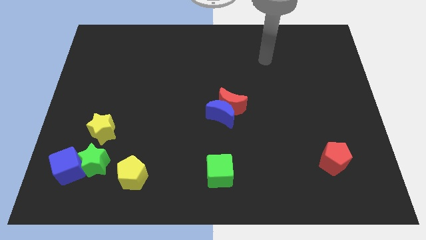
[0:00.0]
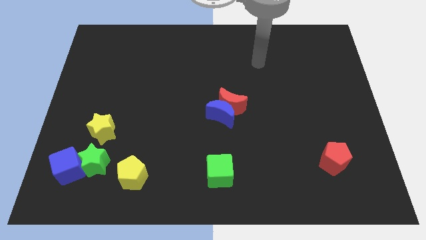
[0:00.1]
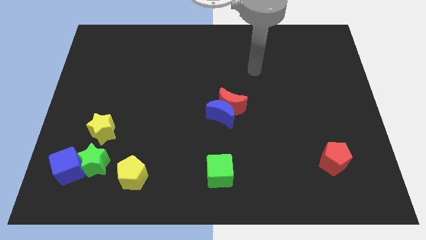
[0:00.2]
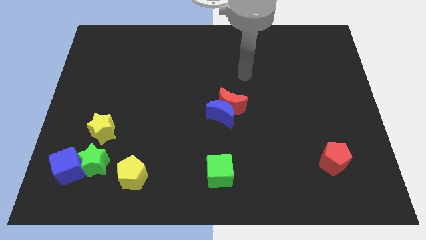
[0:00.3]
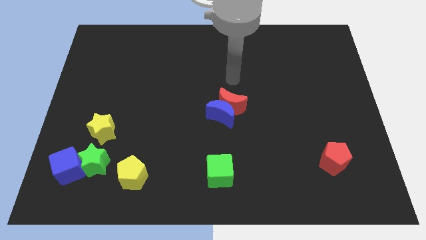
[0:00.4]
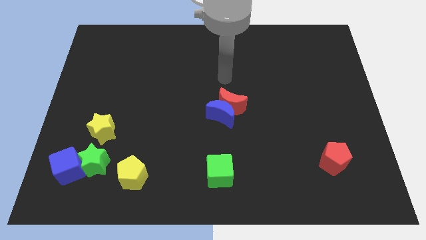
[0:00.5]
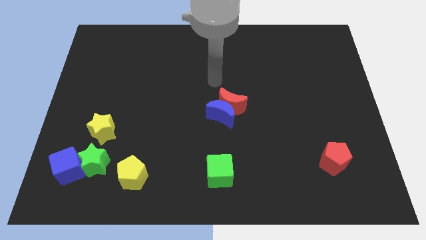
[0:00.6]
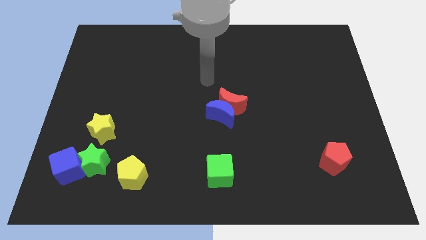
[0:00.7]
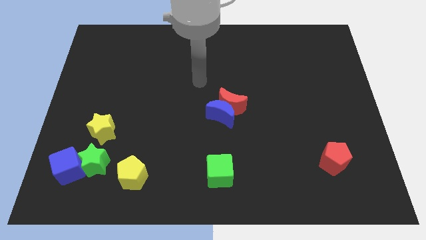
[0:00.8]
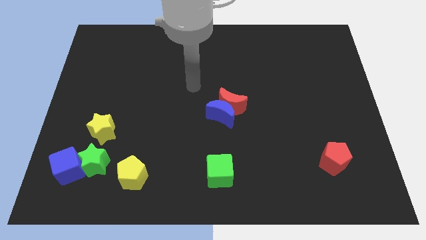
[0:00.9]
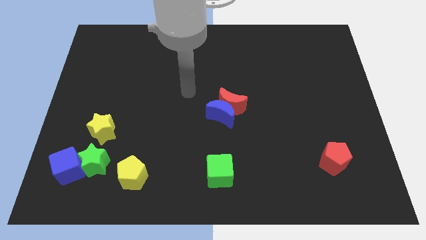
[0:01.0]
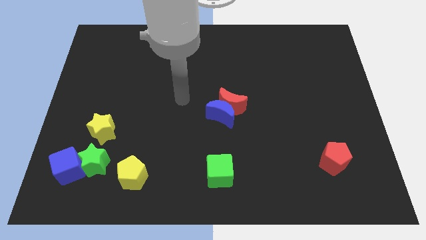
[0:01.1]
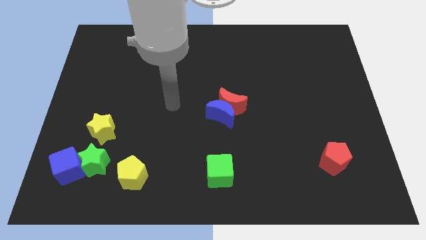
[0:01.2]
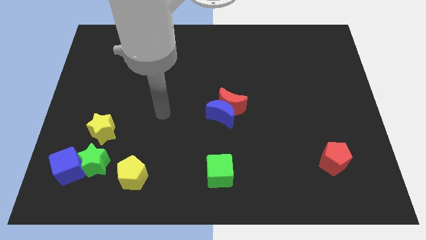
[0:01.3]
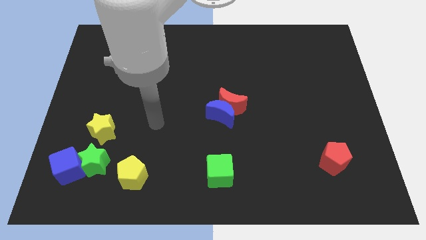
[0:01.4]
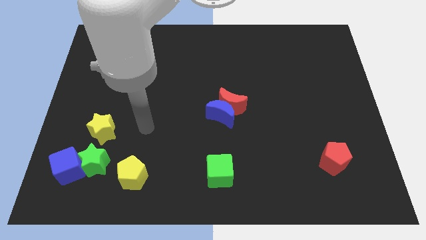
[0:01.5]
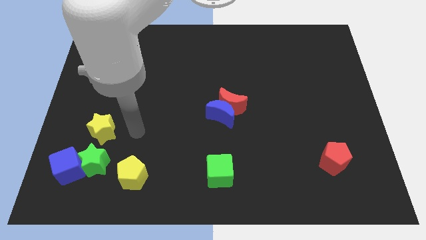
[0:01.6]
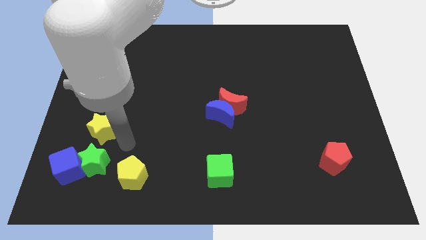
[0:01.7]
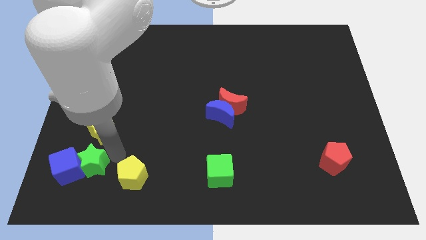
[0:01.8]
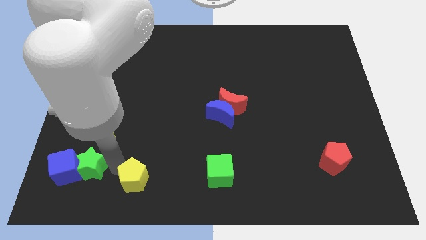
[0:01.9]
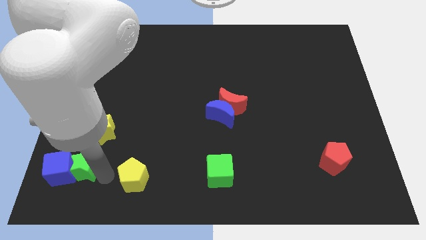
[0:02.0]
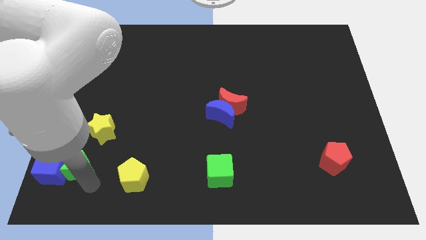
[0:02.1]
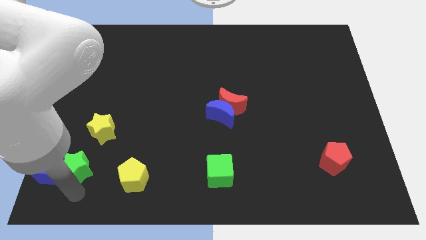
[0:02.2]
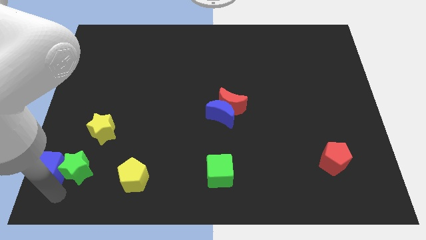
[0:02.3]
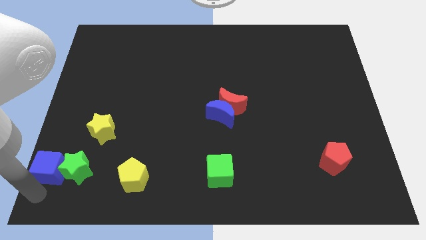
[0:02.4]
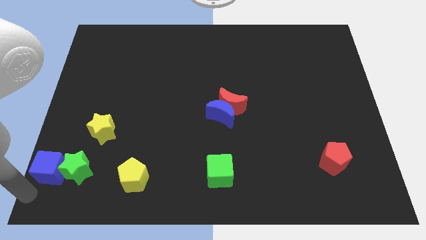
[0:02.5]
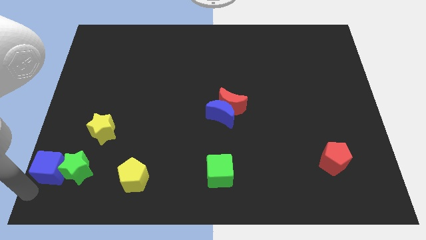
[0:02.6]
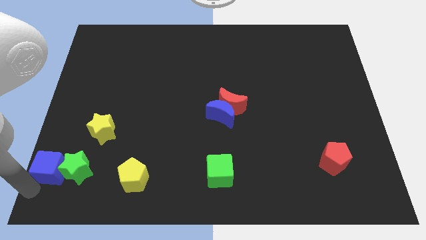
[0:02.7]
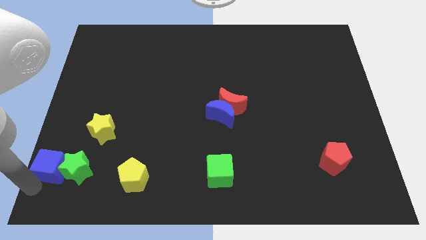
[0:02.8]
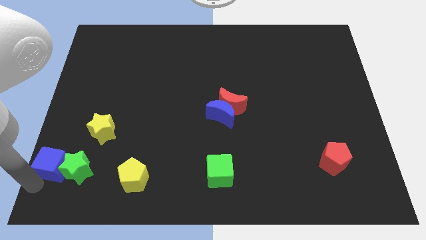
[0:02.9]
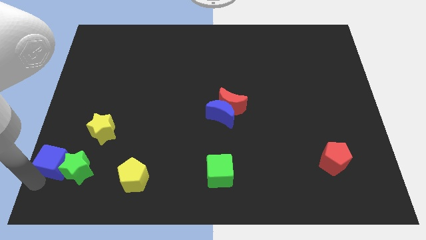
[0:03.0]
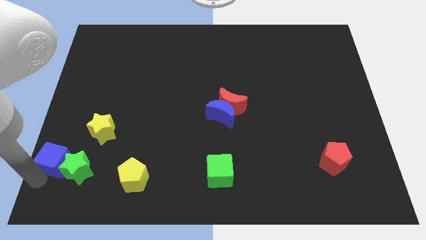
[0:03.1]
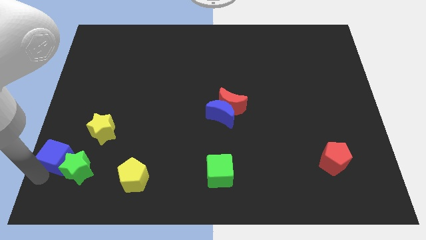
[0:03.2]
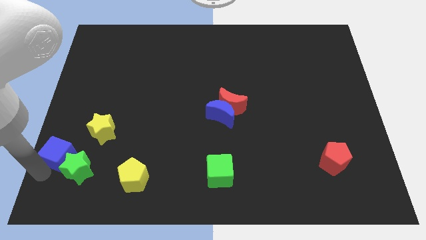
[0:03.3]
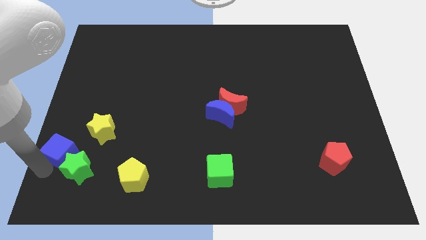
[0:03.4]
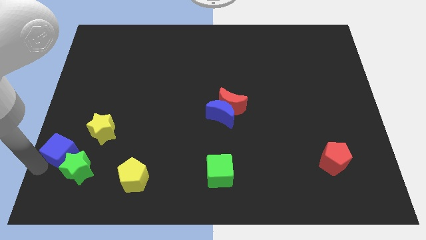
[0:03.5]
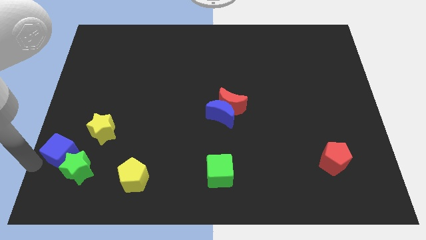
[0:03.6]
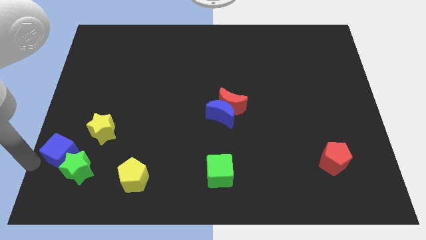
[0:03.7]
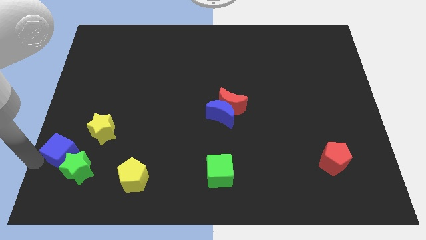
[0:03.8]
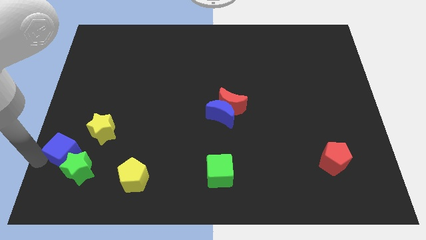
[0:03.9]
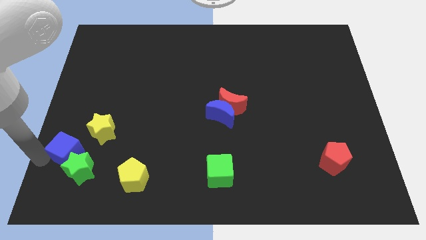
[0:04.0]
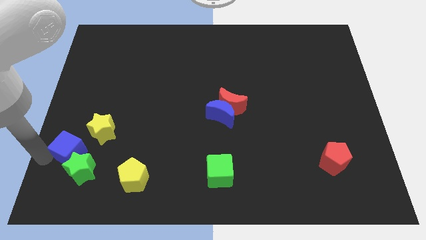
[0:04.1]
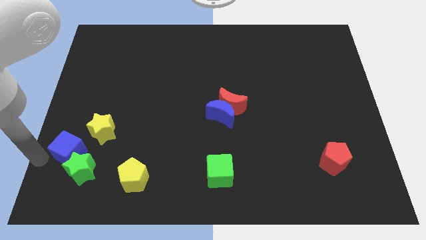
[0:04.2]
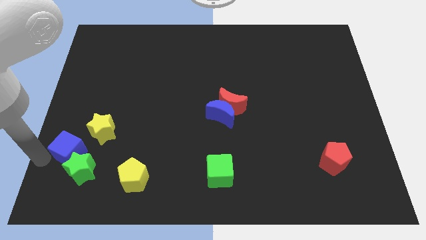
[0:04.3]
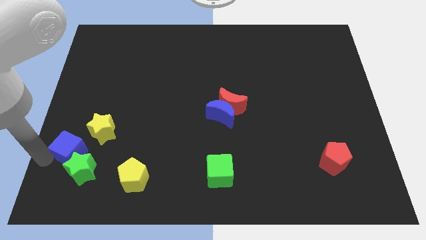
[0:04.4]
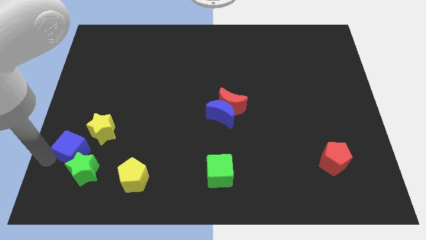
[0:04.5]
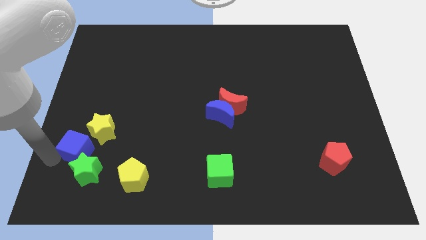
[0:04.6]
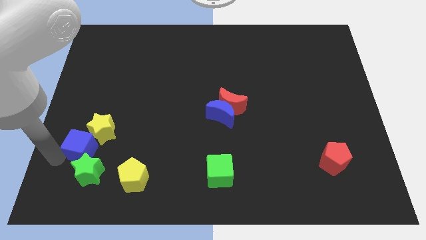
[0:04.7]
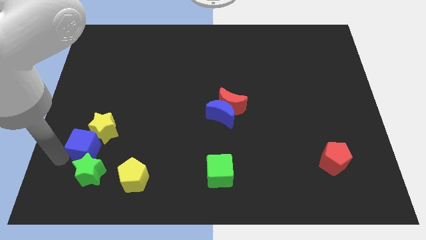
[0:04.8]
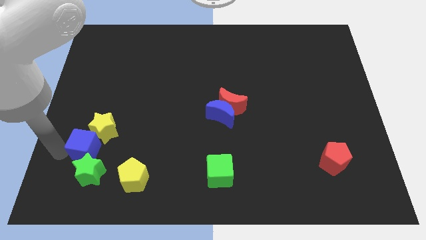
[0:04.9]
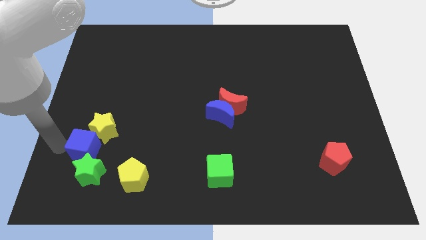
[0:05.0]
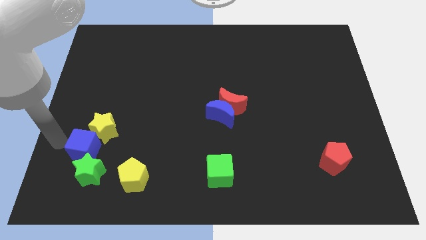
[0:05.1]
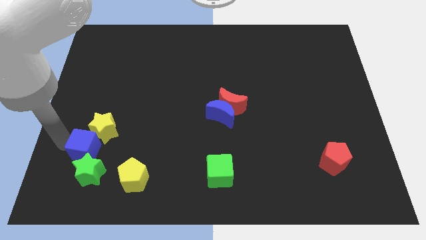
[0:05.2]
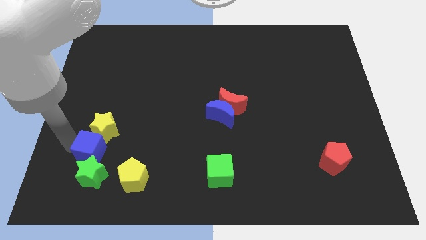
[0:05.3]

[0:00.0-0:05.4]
slide the blue cube diagonally up and to the left of the yellow pentagon

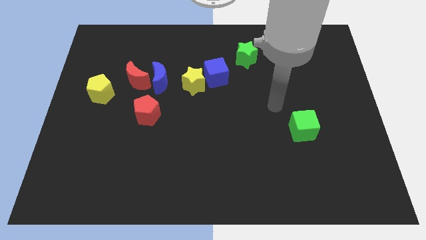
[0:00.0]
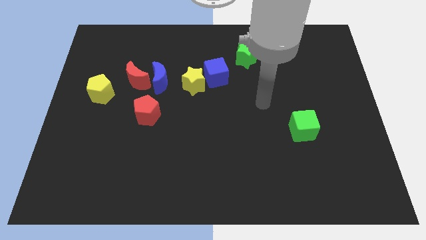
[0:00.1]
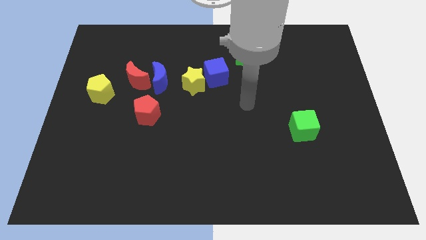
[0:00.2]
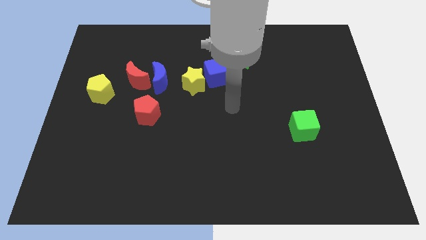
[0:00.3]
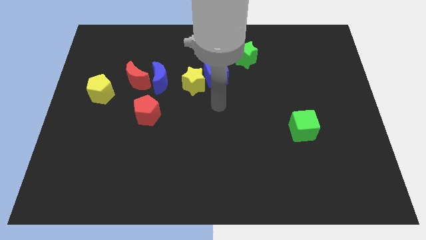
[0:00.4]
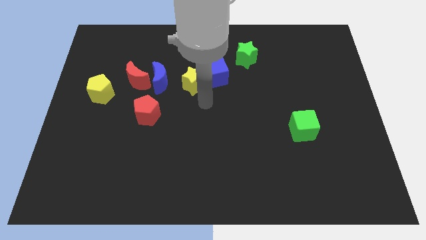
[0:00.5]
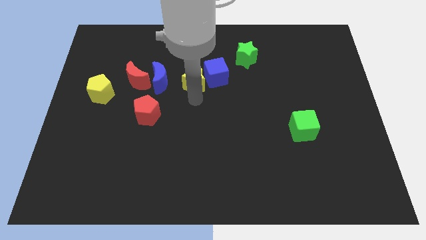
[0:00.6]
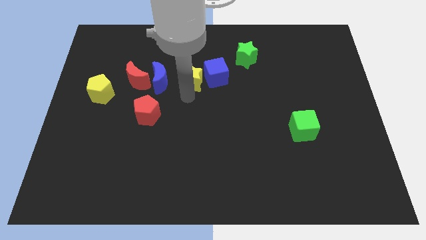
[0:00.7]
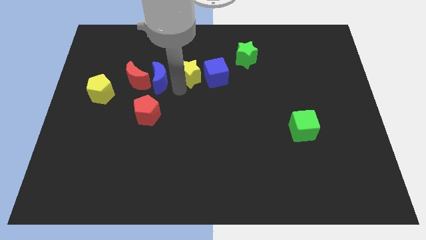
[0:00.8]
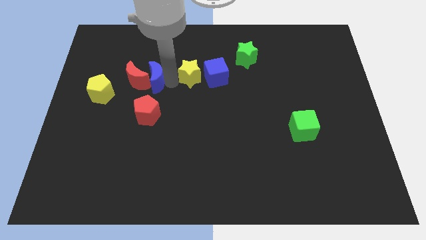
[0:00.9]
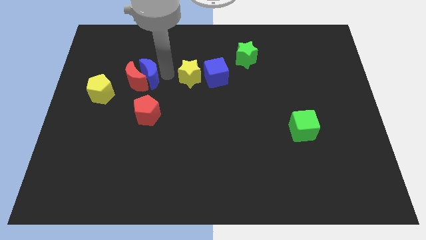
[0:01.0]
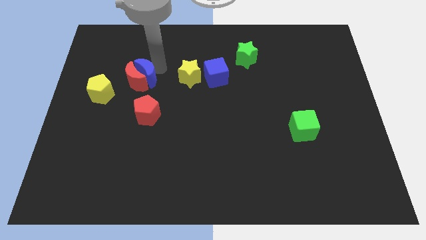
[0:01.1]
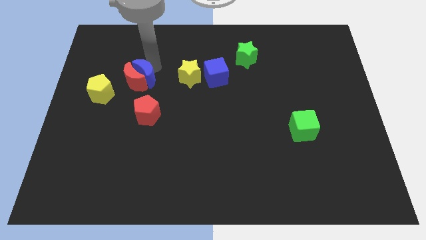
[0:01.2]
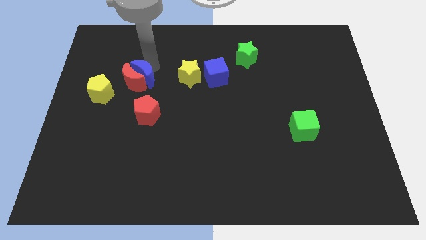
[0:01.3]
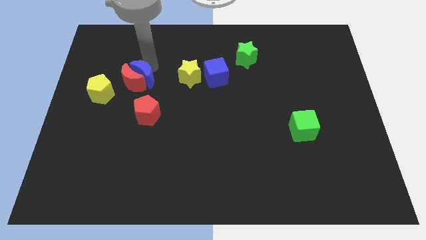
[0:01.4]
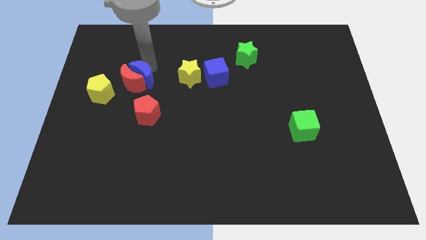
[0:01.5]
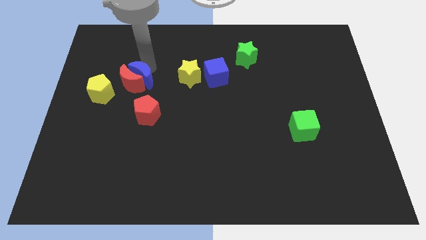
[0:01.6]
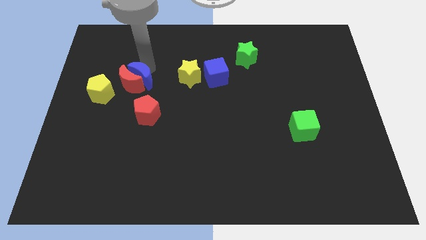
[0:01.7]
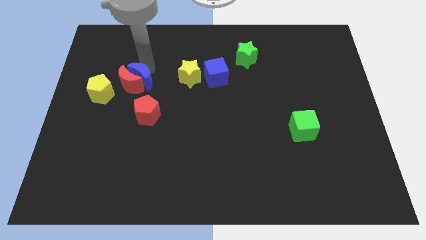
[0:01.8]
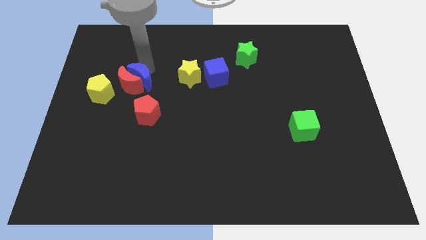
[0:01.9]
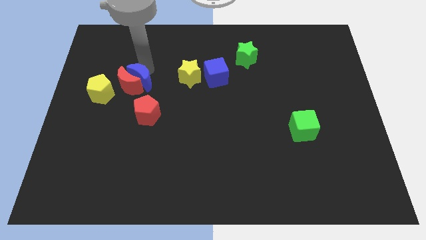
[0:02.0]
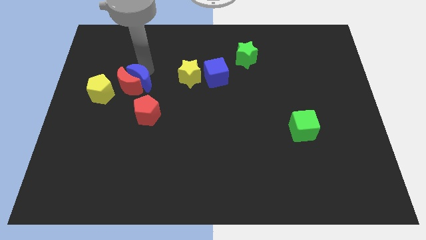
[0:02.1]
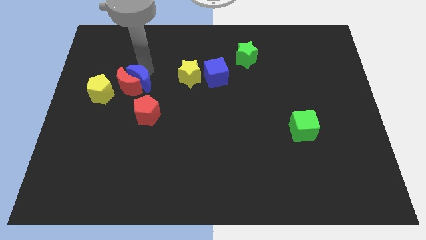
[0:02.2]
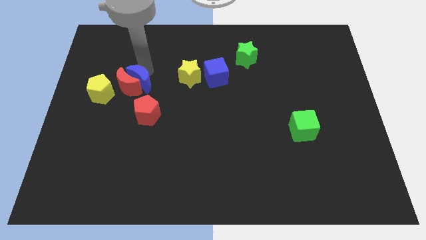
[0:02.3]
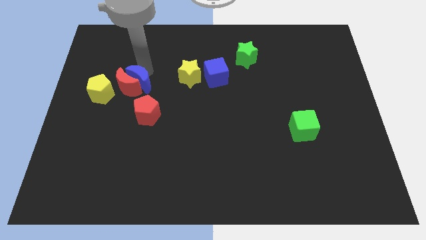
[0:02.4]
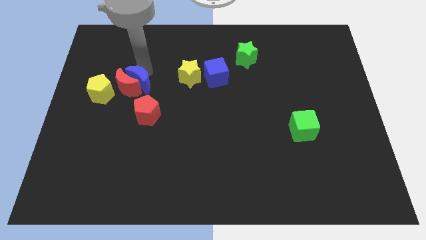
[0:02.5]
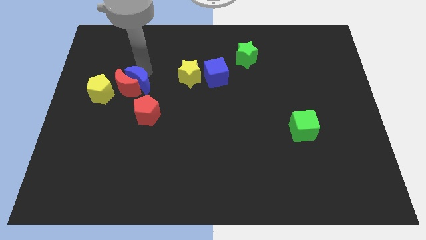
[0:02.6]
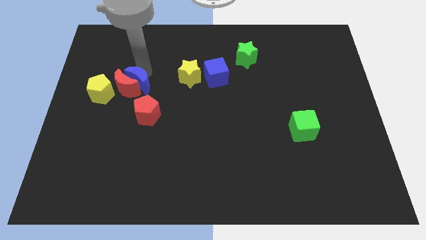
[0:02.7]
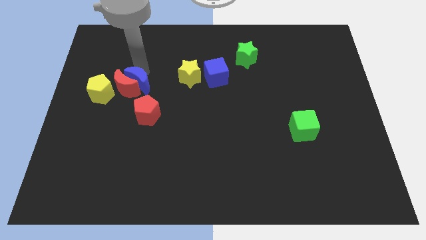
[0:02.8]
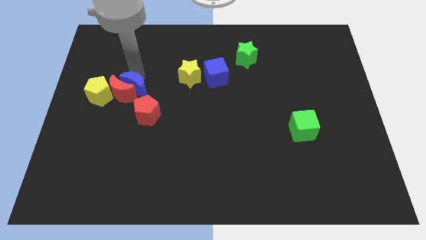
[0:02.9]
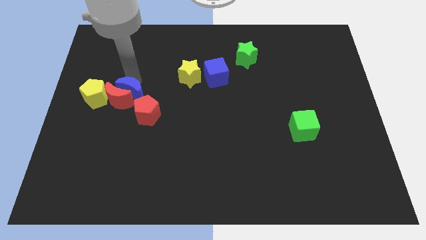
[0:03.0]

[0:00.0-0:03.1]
put the red moon just left of the red pentagon
